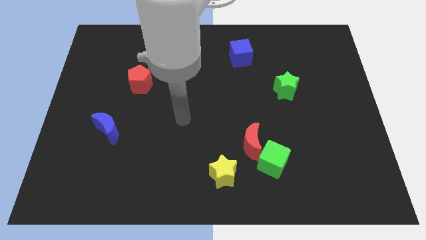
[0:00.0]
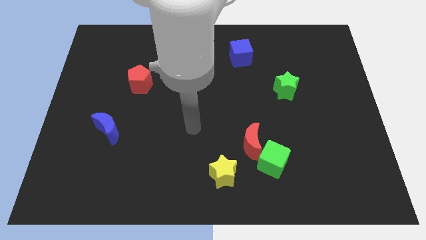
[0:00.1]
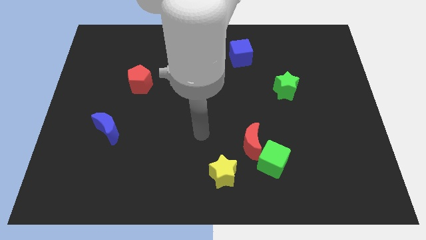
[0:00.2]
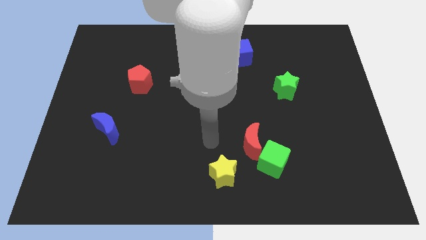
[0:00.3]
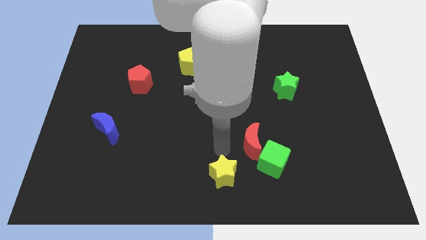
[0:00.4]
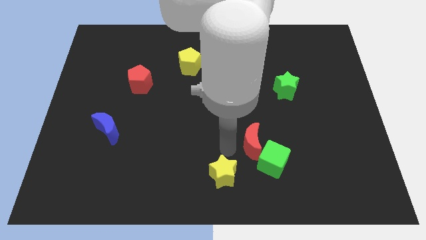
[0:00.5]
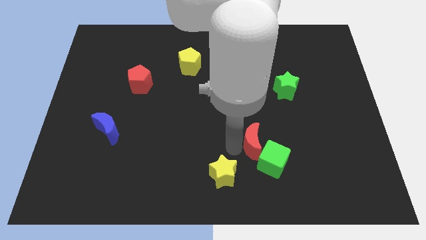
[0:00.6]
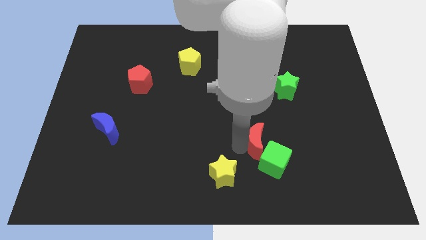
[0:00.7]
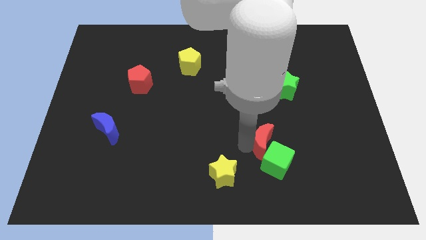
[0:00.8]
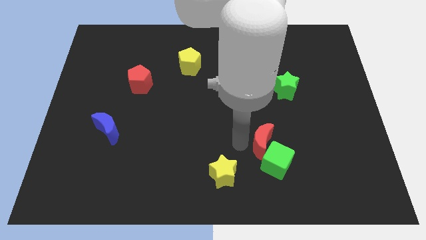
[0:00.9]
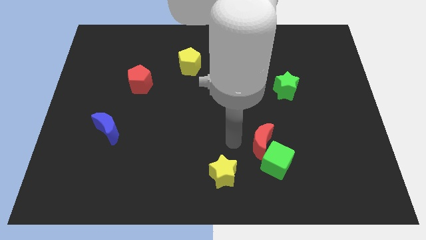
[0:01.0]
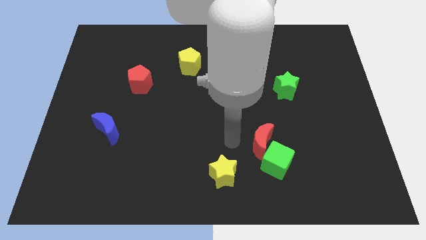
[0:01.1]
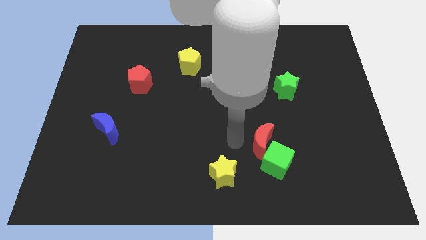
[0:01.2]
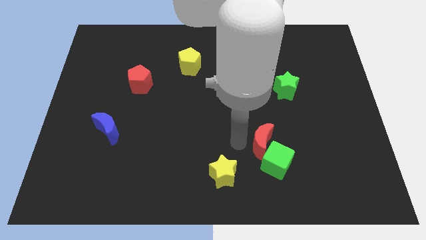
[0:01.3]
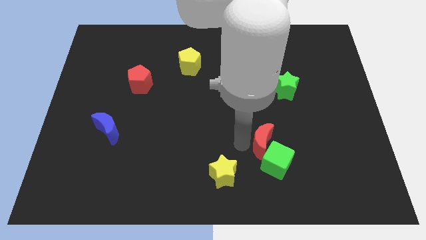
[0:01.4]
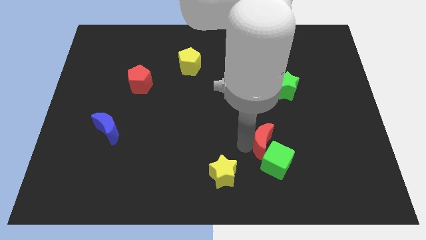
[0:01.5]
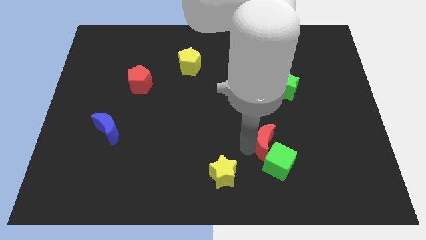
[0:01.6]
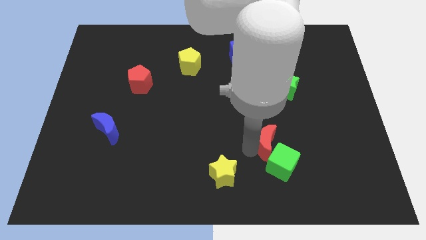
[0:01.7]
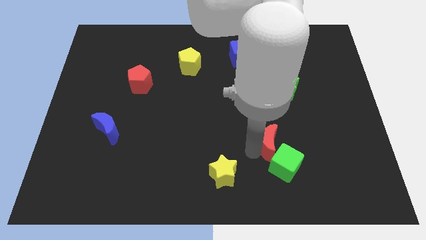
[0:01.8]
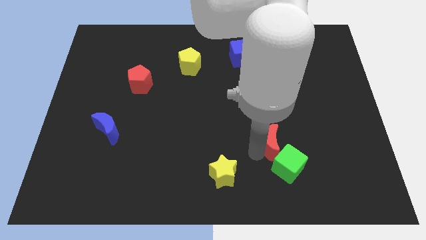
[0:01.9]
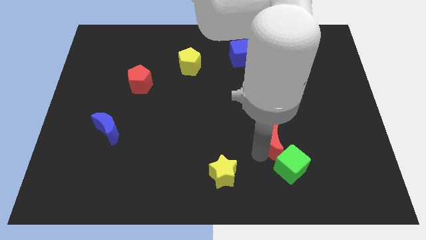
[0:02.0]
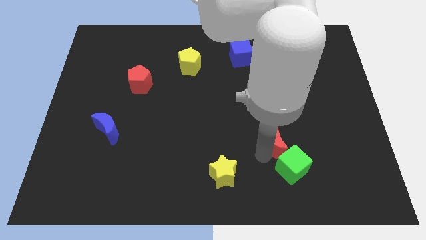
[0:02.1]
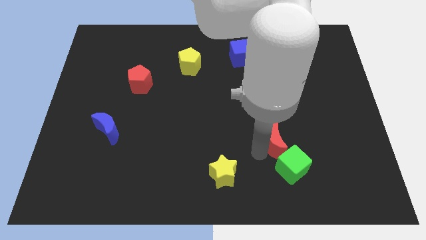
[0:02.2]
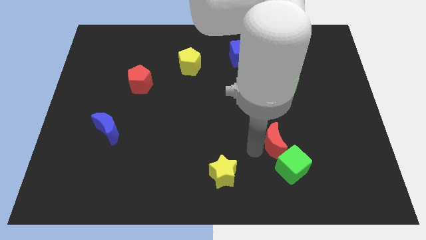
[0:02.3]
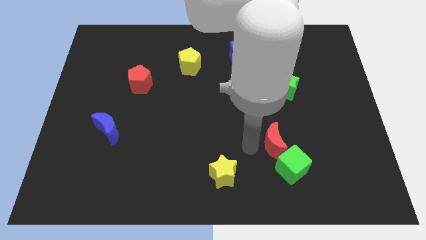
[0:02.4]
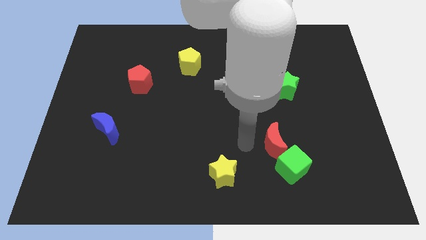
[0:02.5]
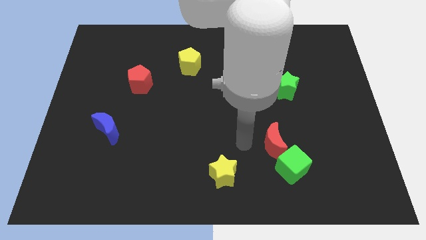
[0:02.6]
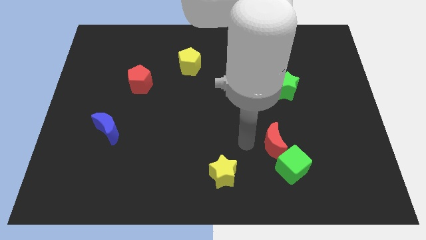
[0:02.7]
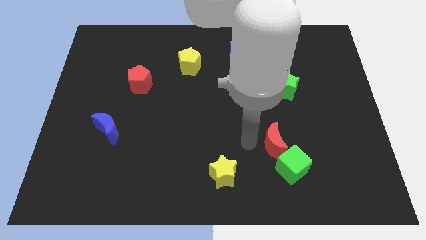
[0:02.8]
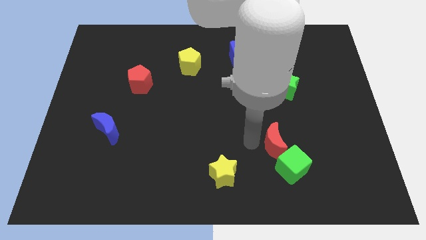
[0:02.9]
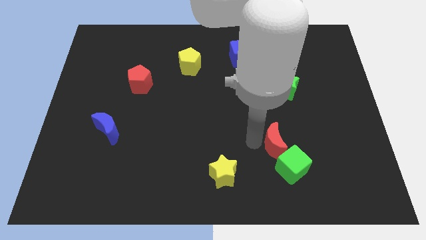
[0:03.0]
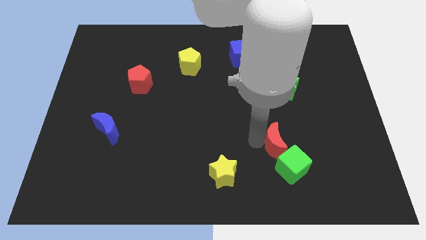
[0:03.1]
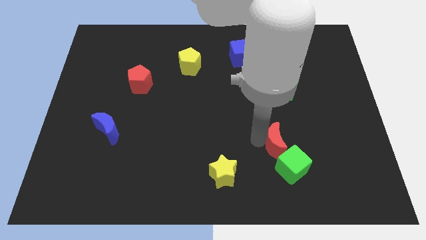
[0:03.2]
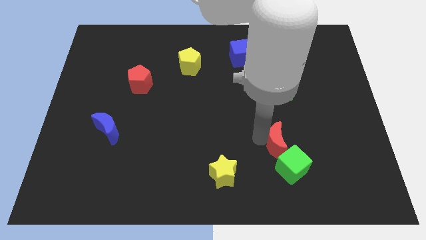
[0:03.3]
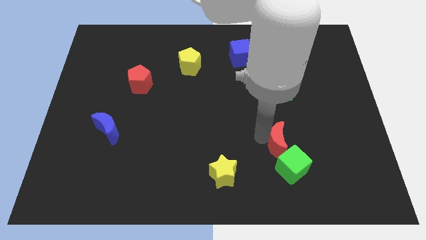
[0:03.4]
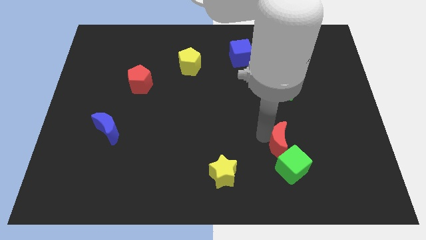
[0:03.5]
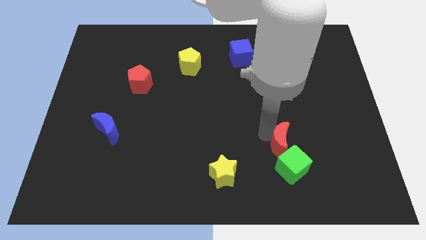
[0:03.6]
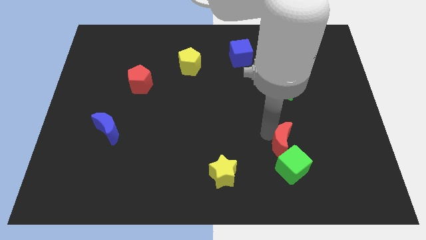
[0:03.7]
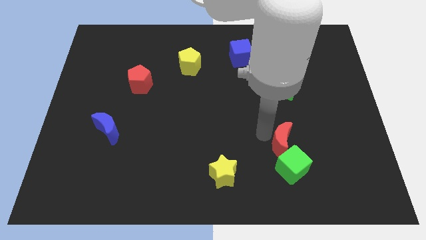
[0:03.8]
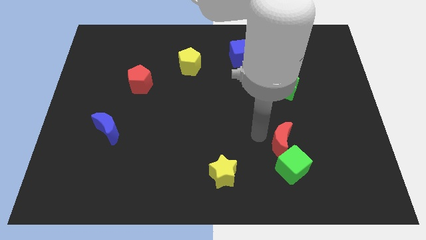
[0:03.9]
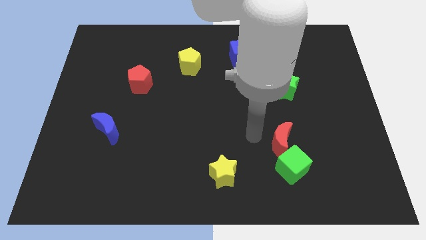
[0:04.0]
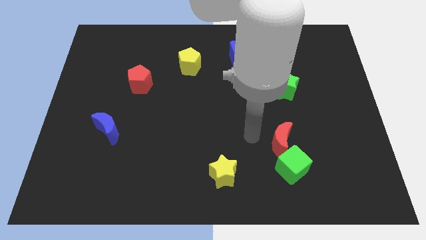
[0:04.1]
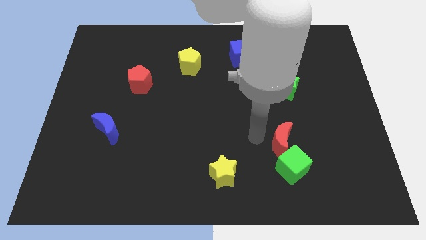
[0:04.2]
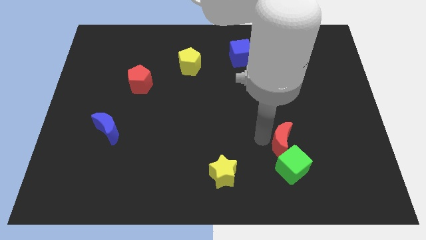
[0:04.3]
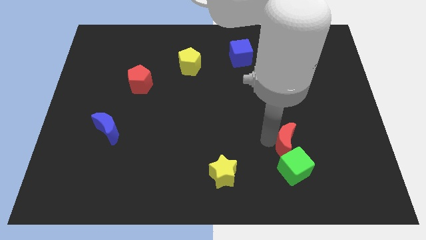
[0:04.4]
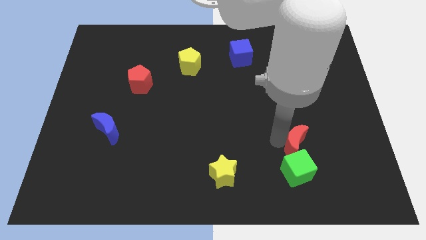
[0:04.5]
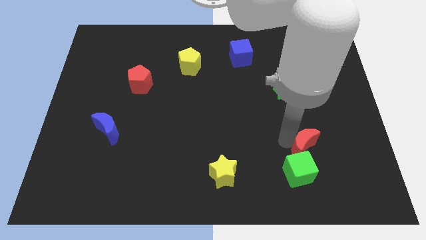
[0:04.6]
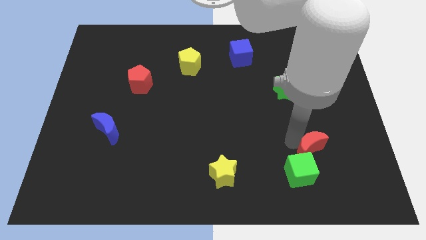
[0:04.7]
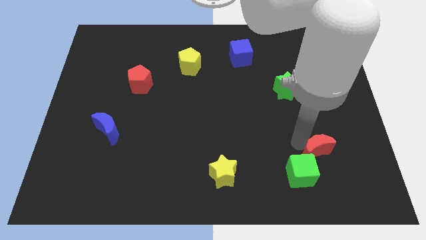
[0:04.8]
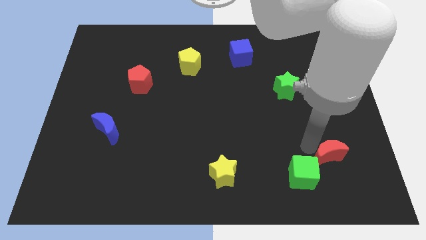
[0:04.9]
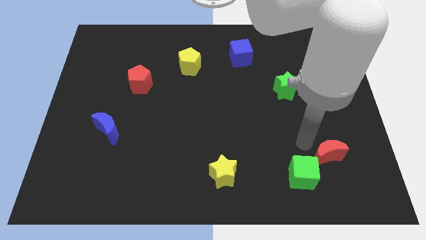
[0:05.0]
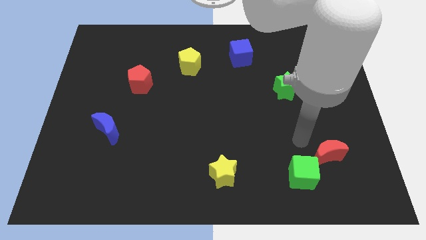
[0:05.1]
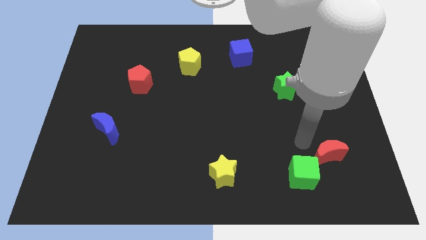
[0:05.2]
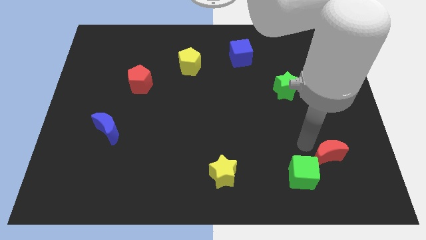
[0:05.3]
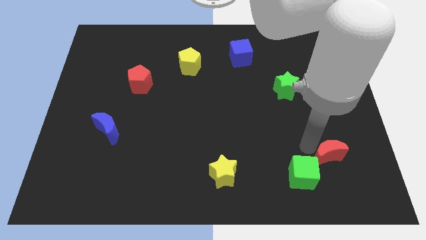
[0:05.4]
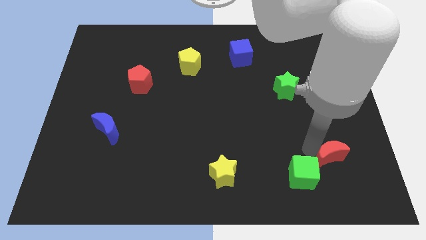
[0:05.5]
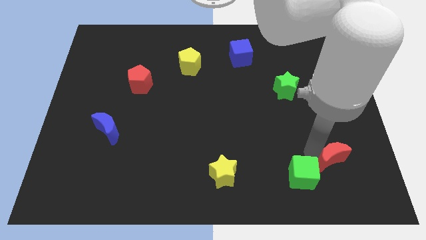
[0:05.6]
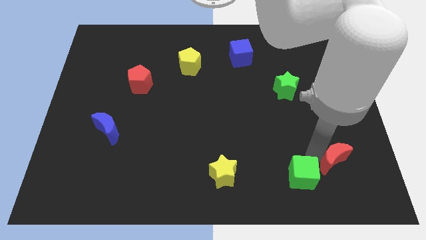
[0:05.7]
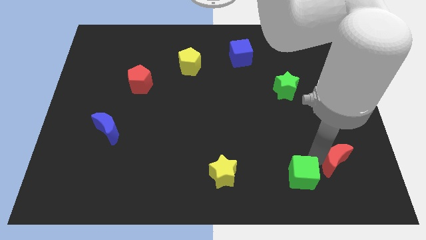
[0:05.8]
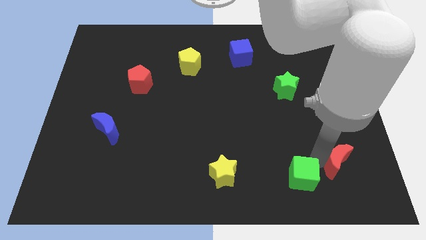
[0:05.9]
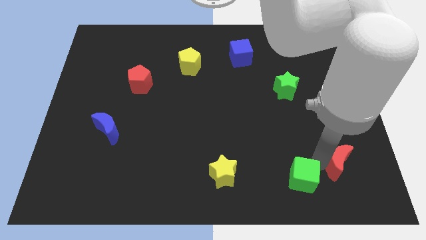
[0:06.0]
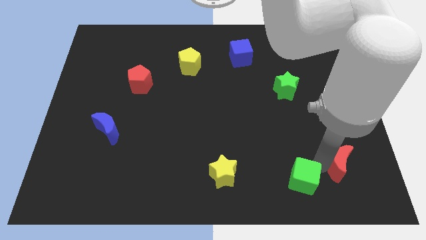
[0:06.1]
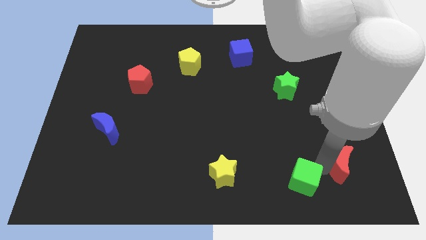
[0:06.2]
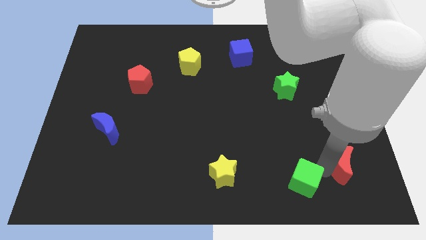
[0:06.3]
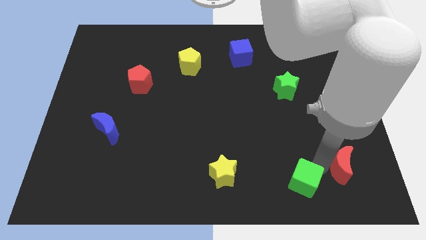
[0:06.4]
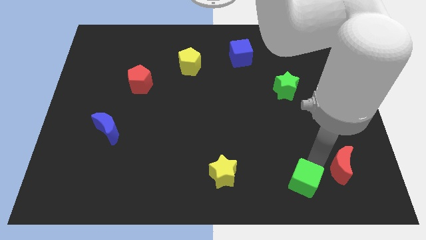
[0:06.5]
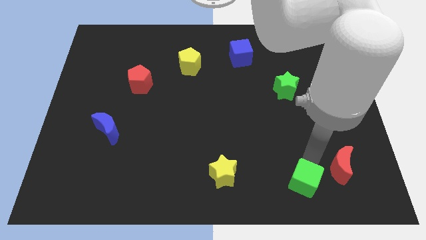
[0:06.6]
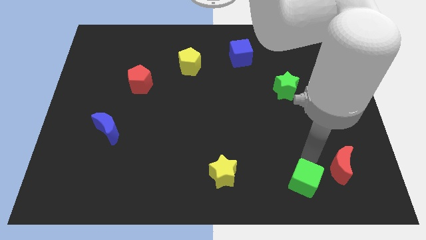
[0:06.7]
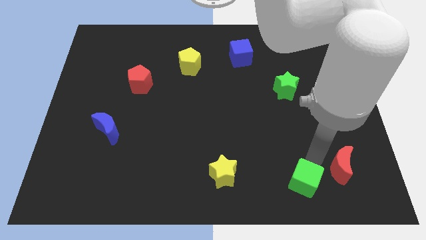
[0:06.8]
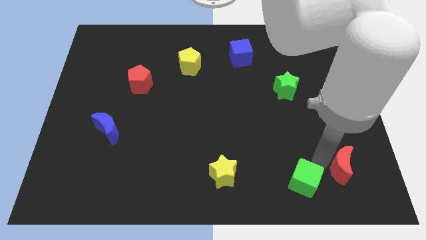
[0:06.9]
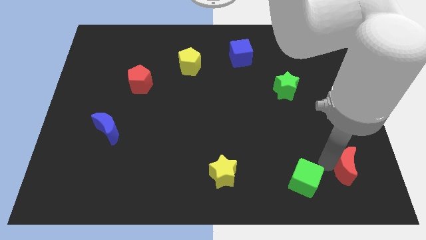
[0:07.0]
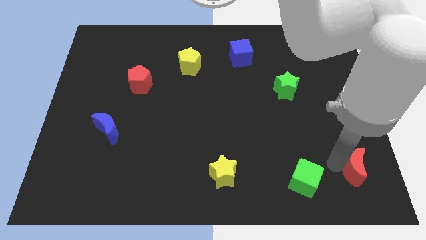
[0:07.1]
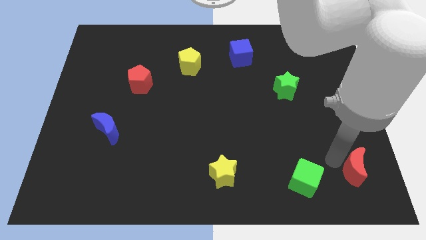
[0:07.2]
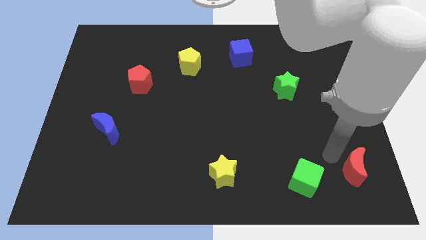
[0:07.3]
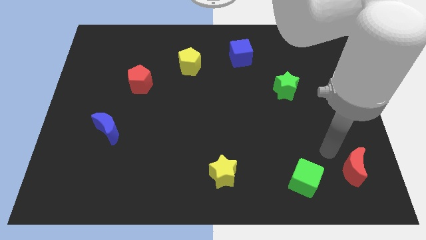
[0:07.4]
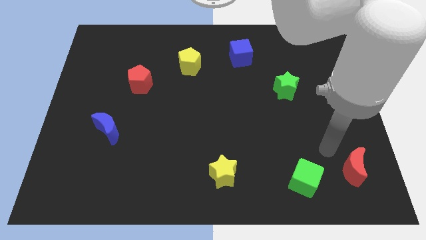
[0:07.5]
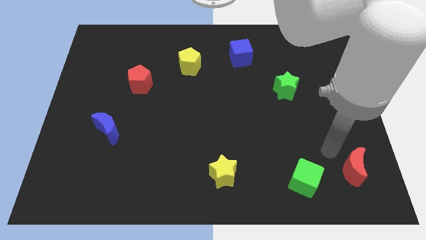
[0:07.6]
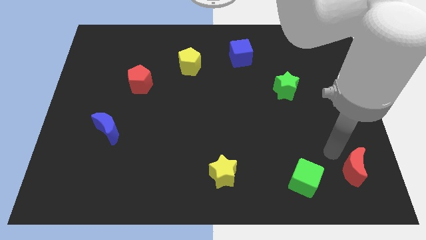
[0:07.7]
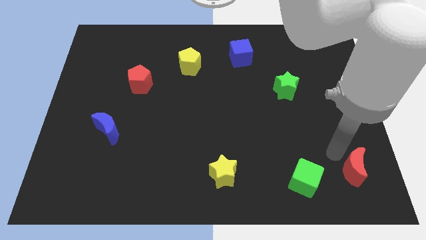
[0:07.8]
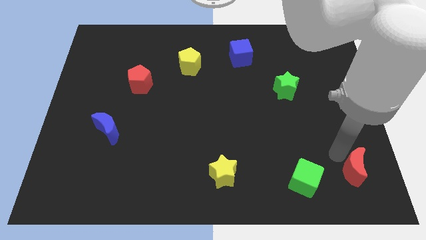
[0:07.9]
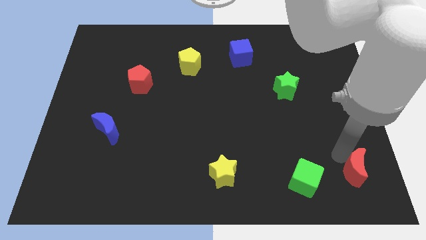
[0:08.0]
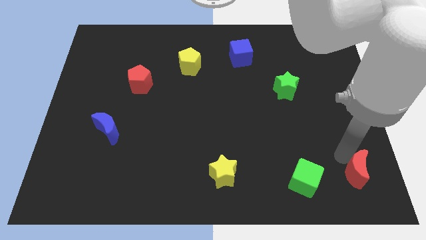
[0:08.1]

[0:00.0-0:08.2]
move the red moon to the bottom right corner
